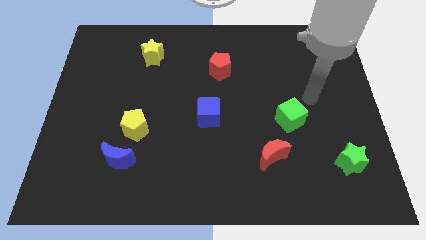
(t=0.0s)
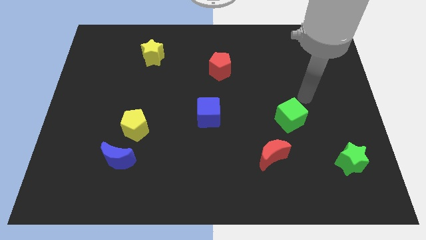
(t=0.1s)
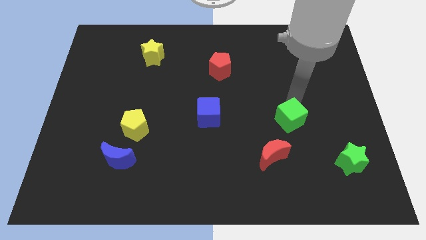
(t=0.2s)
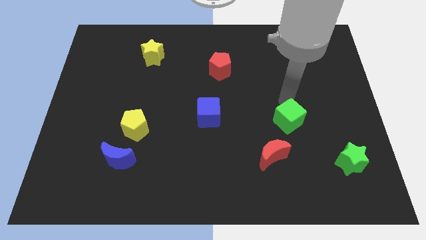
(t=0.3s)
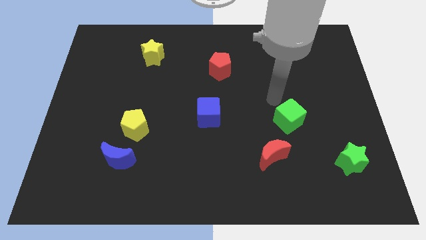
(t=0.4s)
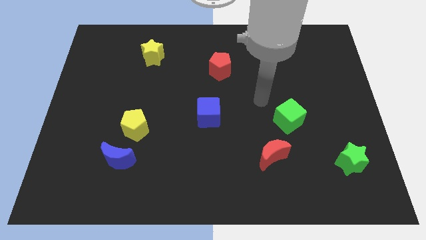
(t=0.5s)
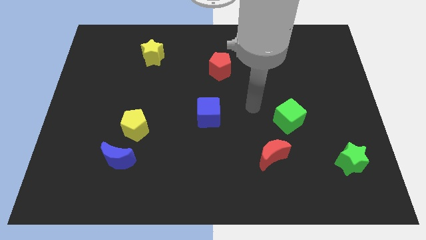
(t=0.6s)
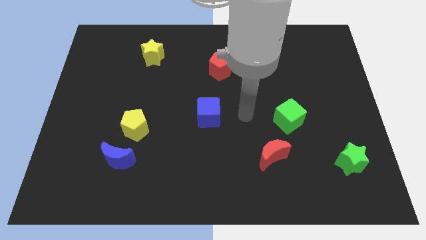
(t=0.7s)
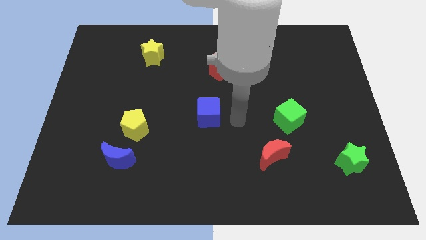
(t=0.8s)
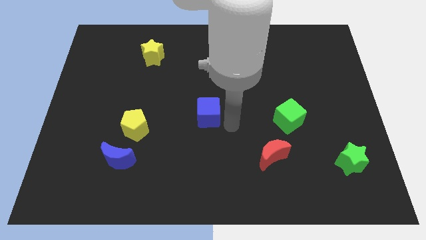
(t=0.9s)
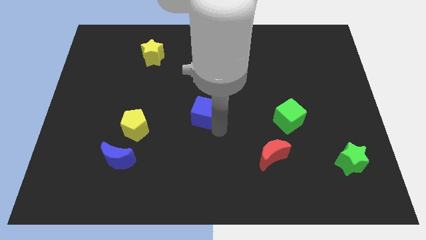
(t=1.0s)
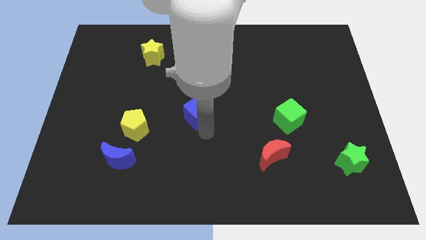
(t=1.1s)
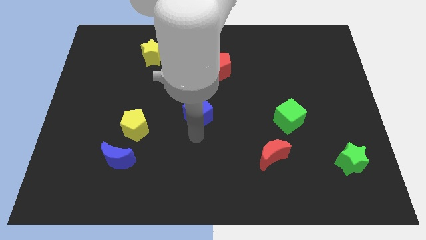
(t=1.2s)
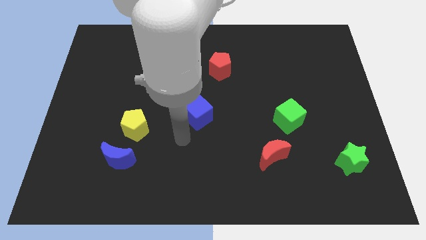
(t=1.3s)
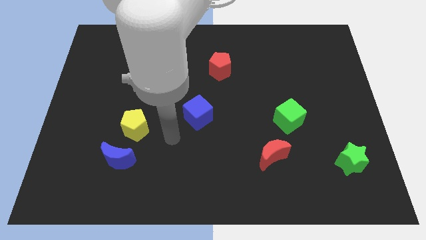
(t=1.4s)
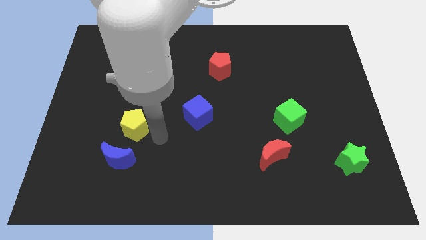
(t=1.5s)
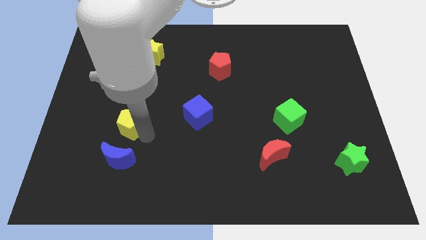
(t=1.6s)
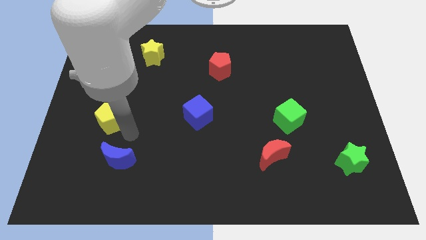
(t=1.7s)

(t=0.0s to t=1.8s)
move the blue moon away from the yellow pentagon

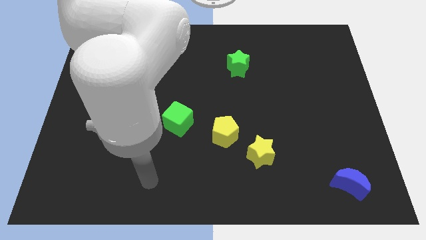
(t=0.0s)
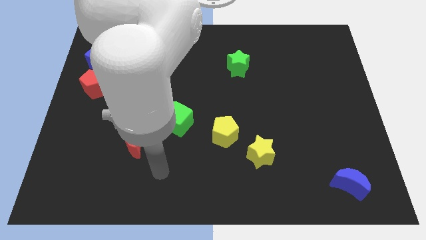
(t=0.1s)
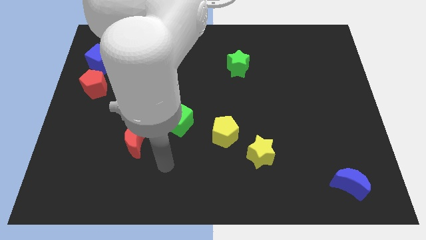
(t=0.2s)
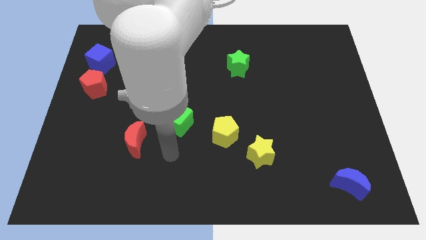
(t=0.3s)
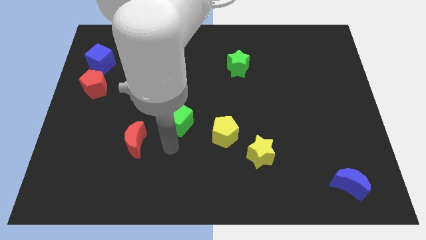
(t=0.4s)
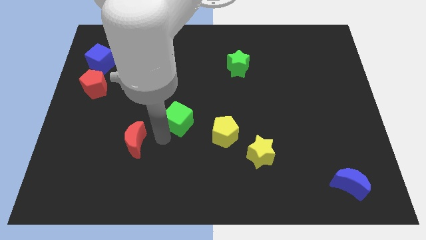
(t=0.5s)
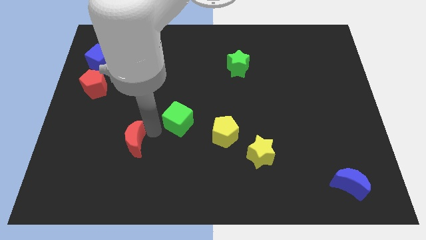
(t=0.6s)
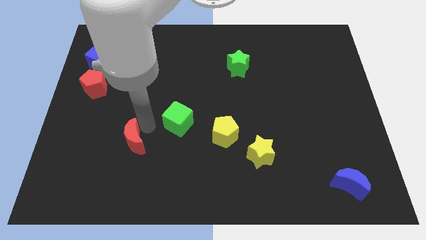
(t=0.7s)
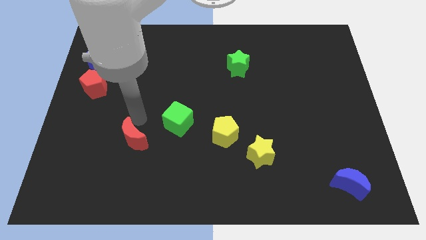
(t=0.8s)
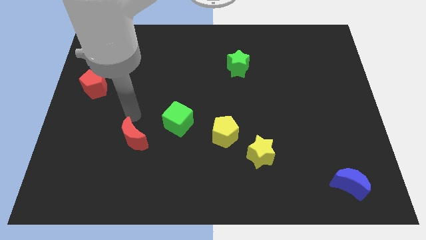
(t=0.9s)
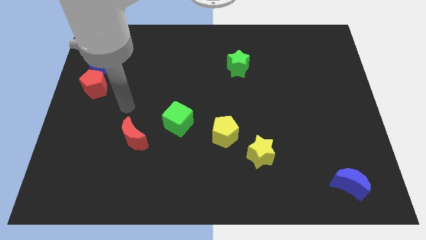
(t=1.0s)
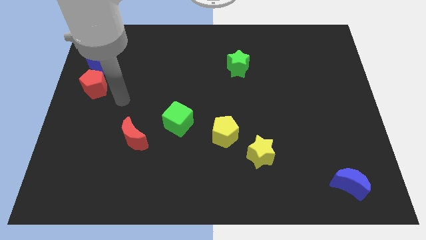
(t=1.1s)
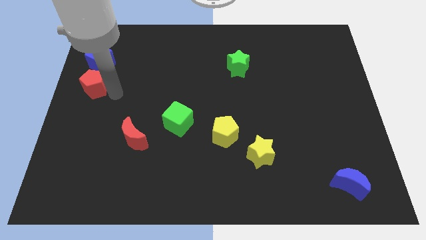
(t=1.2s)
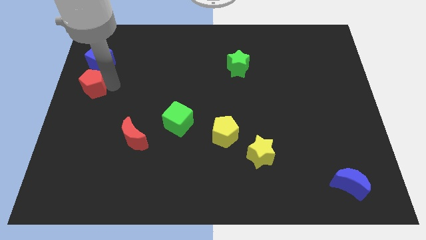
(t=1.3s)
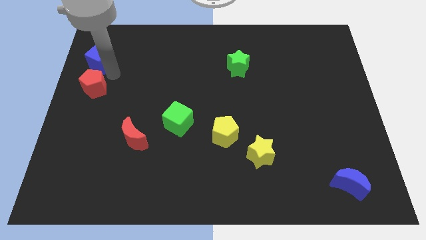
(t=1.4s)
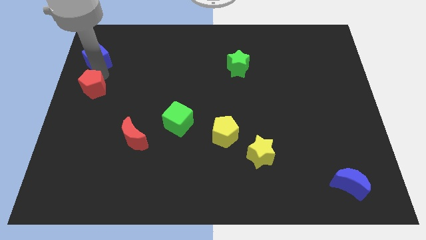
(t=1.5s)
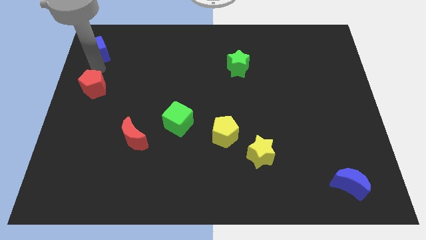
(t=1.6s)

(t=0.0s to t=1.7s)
move the red pentagon away from the blue cube

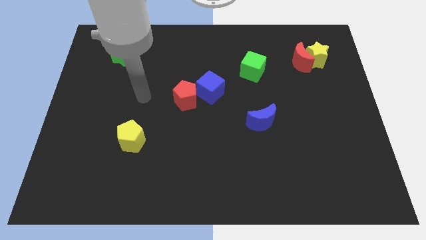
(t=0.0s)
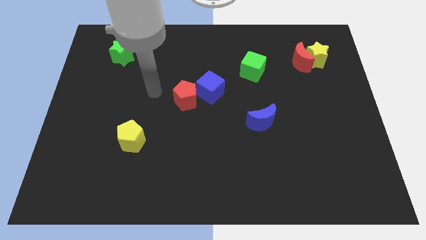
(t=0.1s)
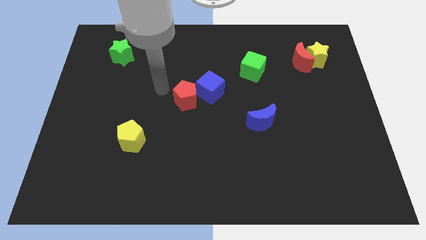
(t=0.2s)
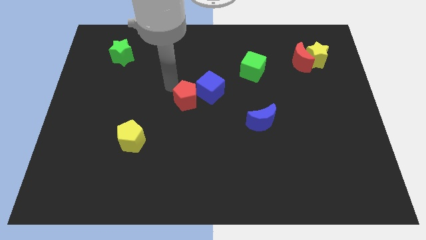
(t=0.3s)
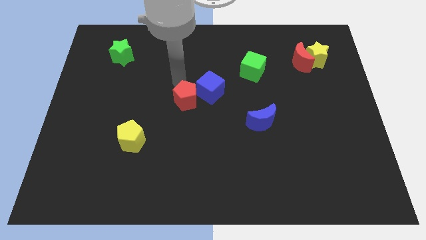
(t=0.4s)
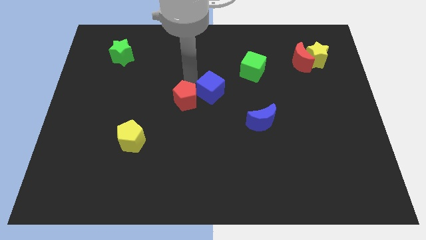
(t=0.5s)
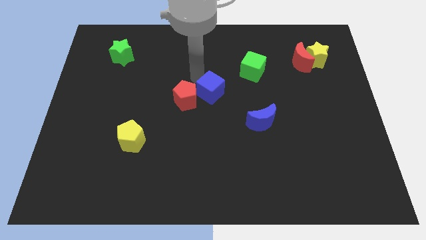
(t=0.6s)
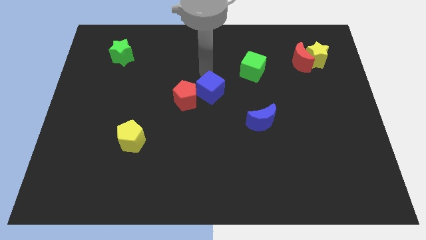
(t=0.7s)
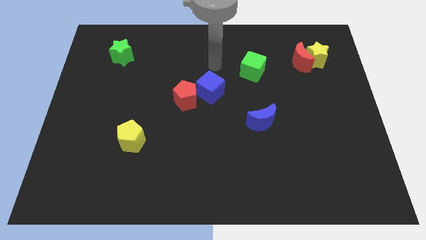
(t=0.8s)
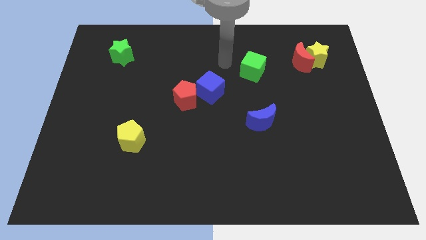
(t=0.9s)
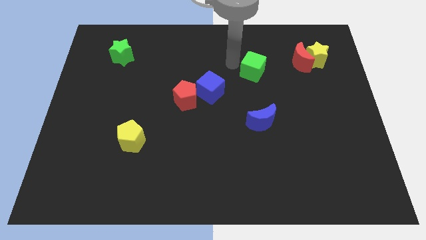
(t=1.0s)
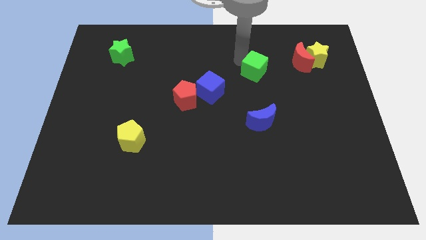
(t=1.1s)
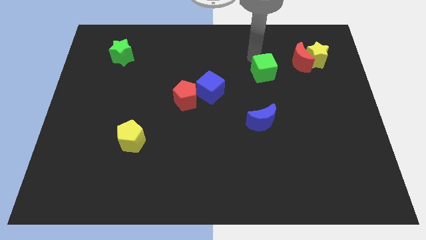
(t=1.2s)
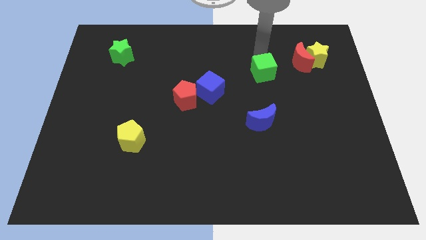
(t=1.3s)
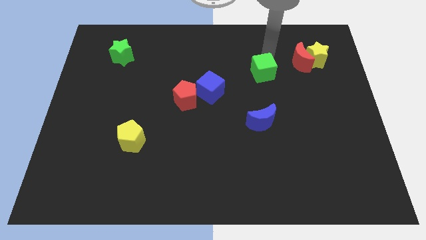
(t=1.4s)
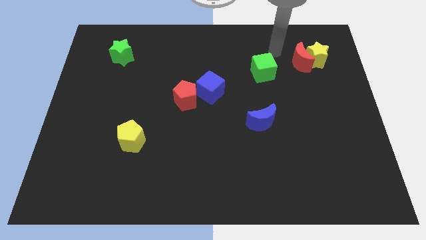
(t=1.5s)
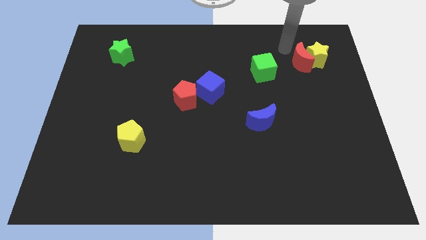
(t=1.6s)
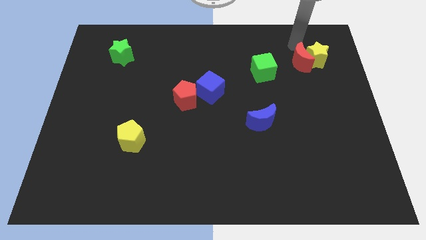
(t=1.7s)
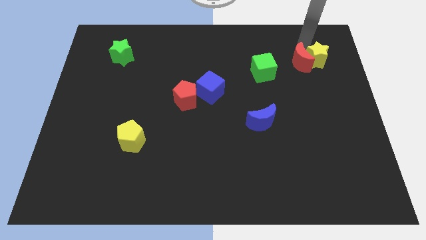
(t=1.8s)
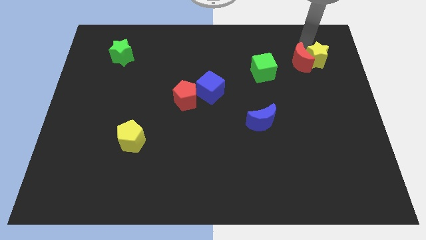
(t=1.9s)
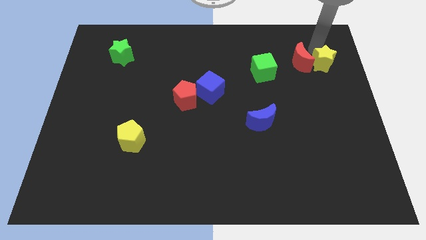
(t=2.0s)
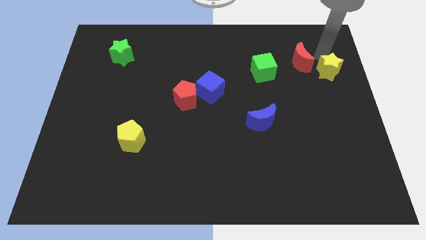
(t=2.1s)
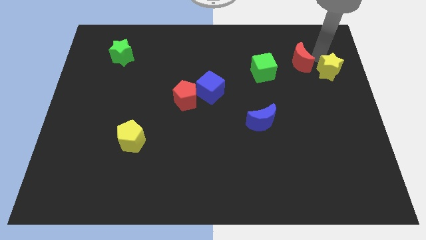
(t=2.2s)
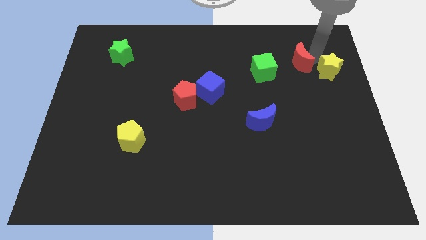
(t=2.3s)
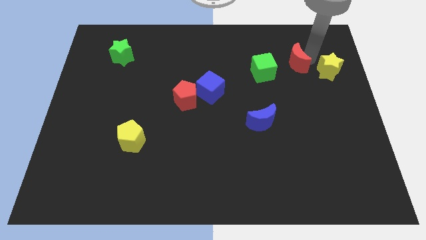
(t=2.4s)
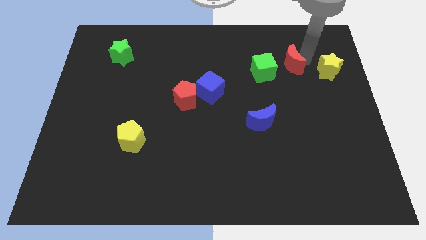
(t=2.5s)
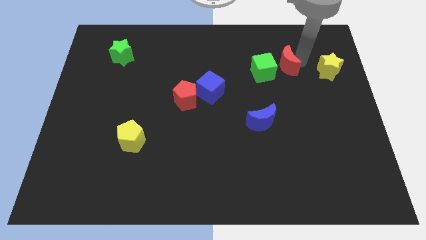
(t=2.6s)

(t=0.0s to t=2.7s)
separate the red moon from the yellow star

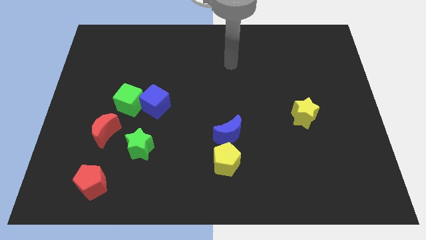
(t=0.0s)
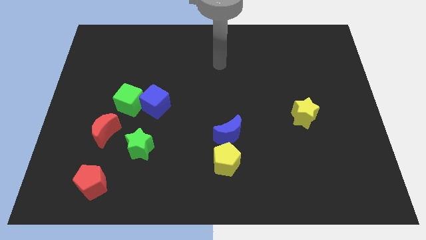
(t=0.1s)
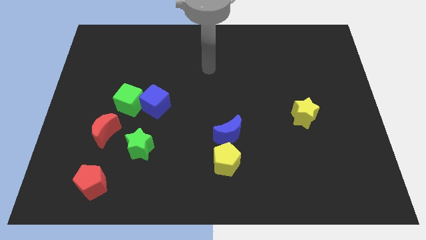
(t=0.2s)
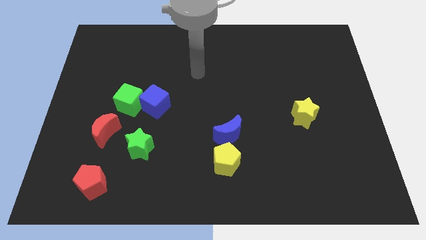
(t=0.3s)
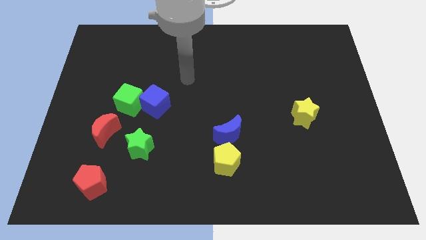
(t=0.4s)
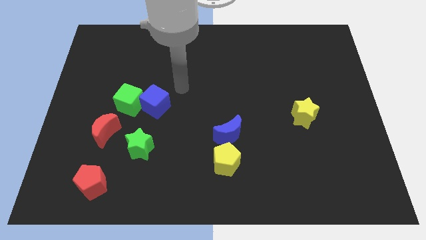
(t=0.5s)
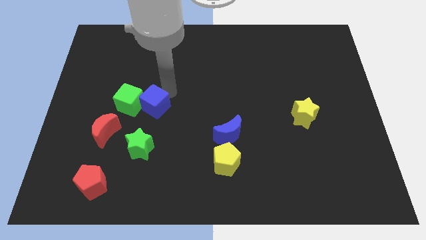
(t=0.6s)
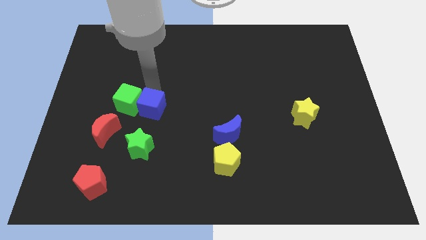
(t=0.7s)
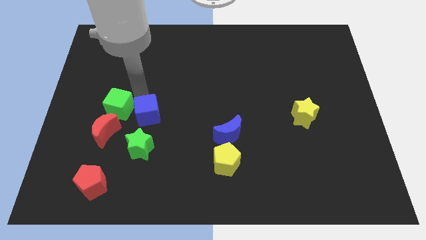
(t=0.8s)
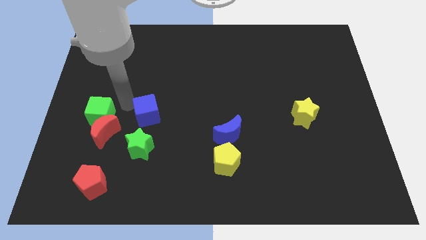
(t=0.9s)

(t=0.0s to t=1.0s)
move the blue cube away from the green cube

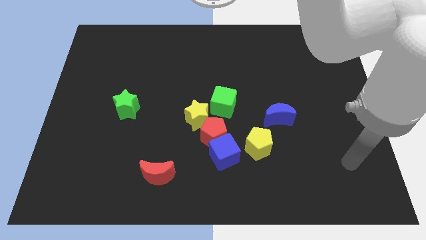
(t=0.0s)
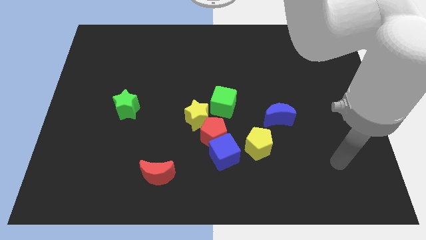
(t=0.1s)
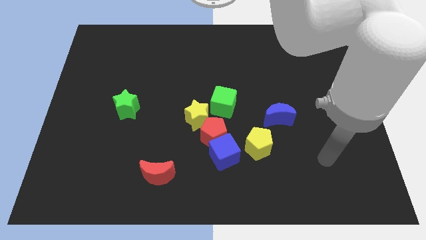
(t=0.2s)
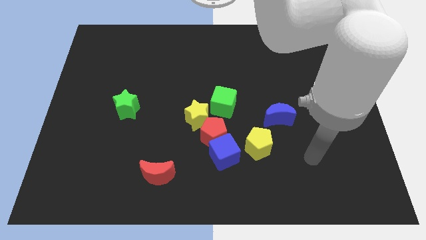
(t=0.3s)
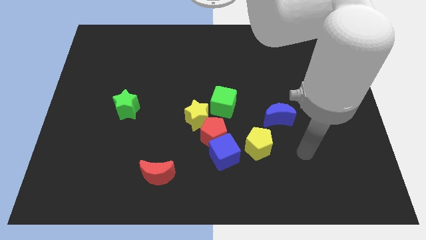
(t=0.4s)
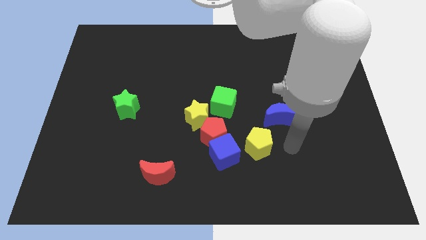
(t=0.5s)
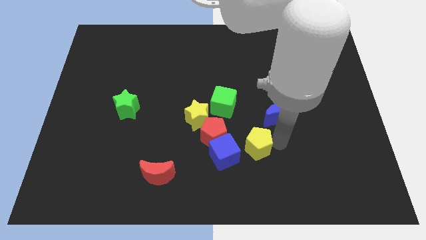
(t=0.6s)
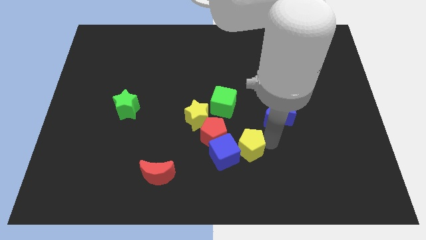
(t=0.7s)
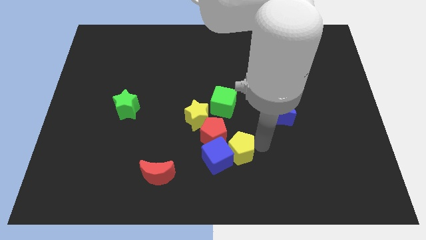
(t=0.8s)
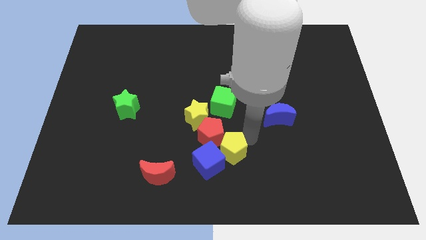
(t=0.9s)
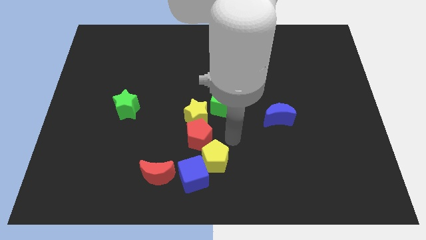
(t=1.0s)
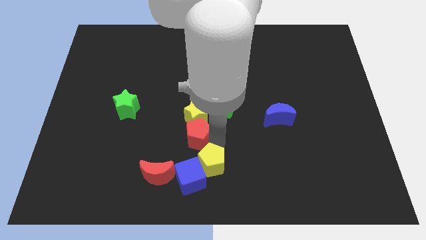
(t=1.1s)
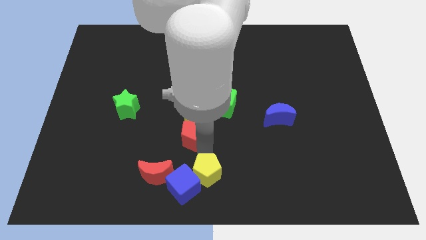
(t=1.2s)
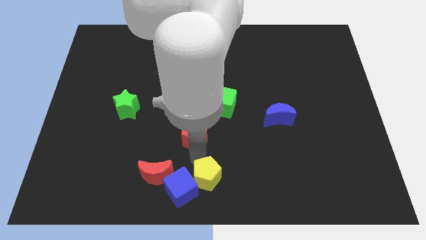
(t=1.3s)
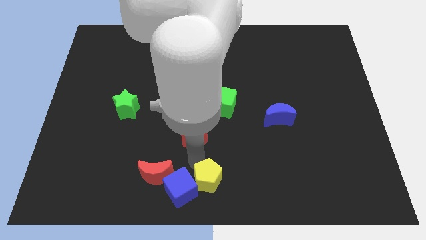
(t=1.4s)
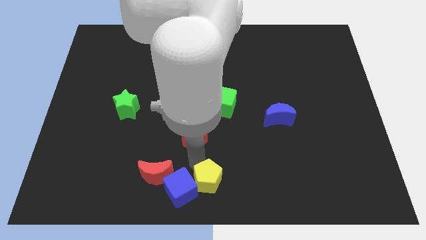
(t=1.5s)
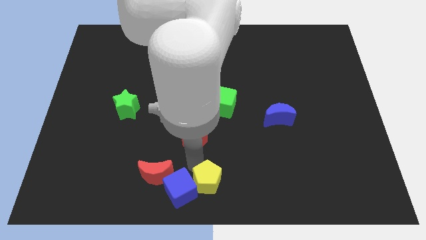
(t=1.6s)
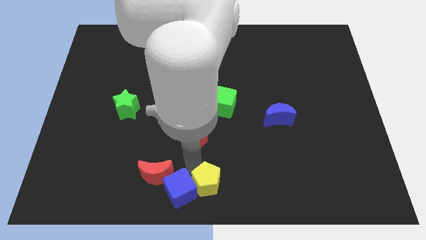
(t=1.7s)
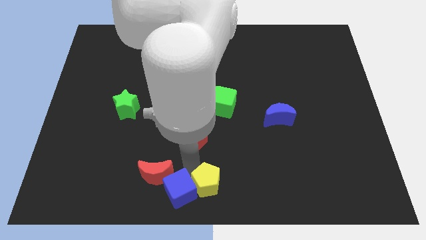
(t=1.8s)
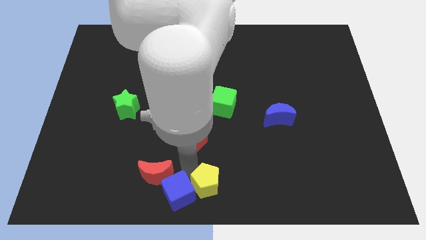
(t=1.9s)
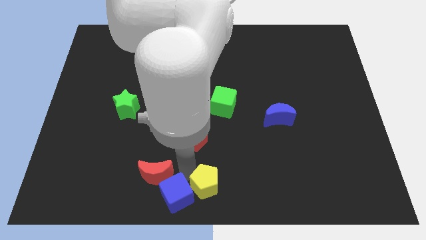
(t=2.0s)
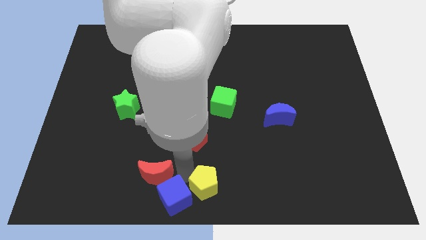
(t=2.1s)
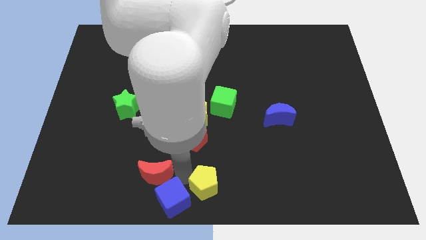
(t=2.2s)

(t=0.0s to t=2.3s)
move the blue cube away from the red pentagon and yellow pentagon
